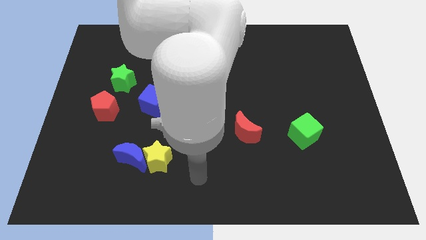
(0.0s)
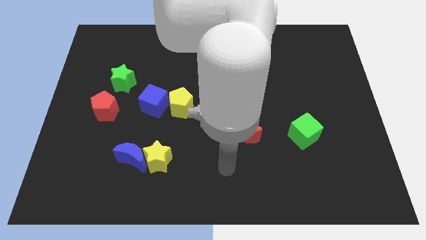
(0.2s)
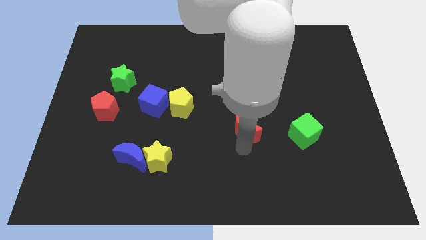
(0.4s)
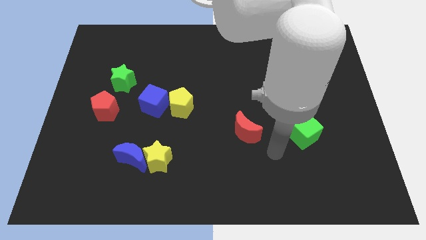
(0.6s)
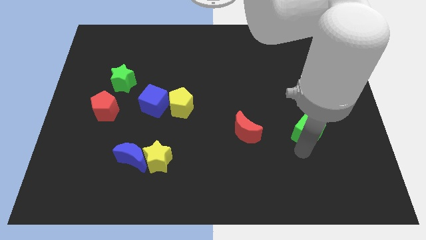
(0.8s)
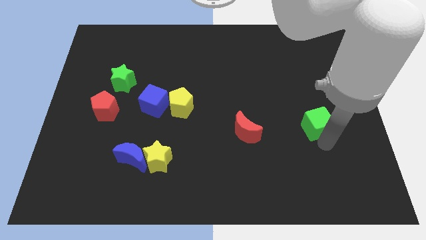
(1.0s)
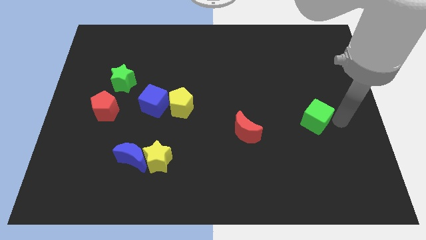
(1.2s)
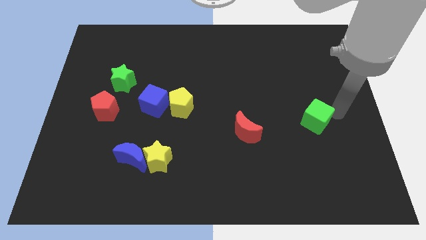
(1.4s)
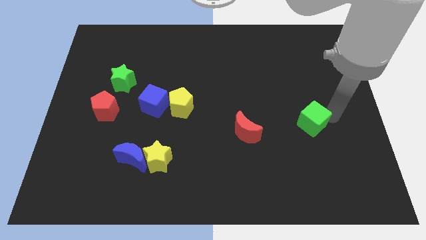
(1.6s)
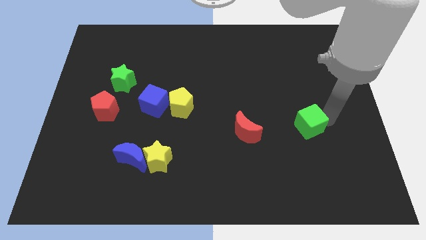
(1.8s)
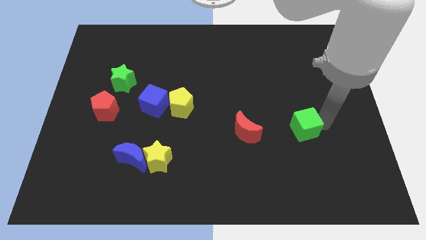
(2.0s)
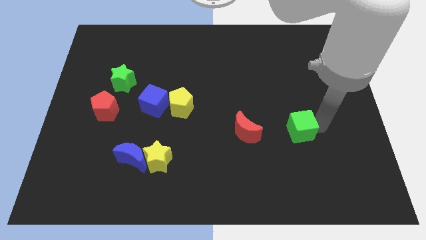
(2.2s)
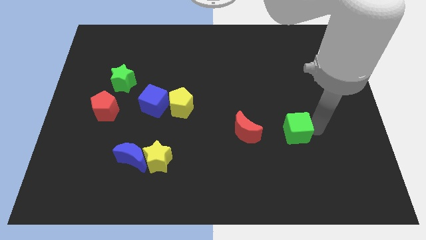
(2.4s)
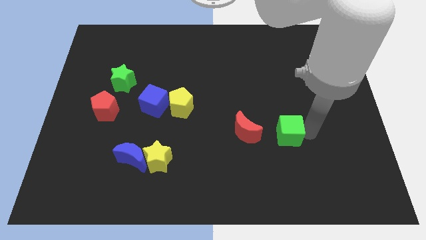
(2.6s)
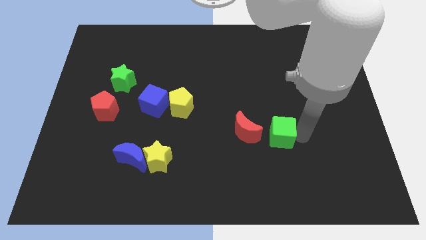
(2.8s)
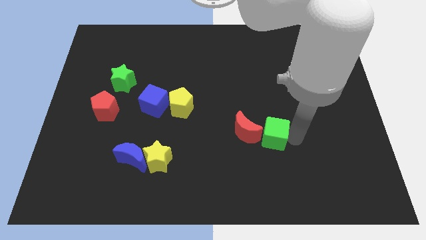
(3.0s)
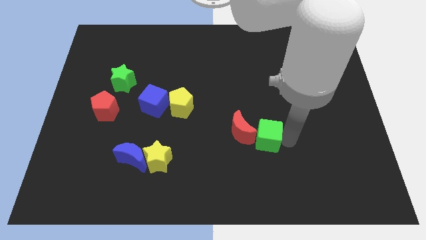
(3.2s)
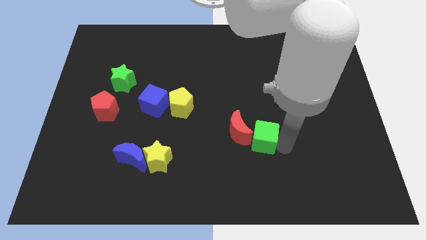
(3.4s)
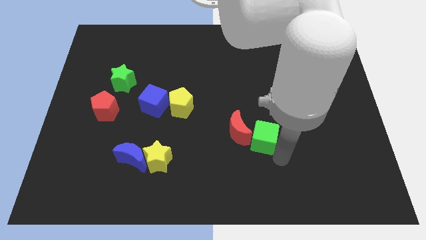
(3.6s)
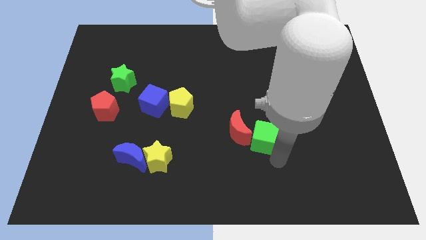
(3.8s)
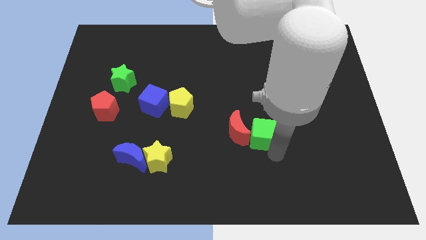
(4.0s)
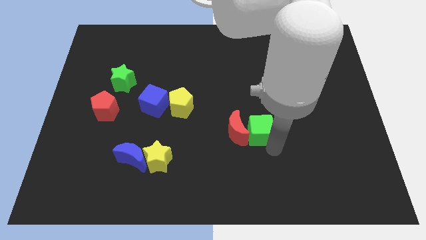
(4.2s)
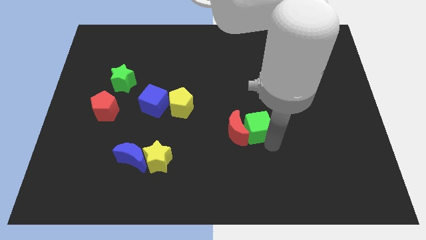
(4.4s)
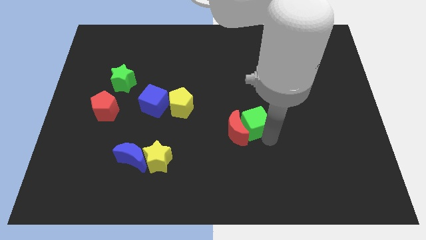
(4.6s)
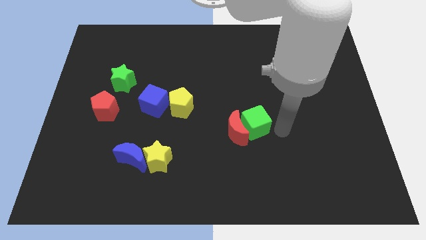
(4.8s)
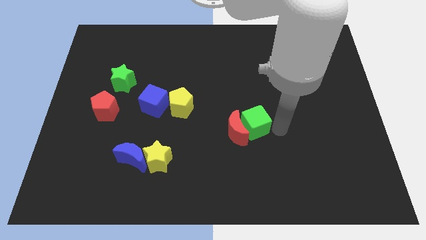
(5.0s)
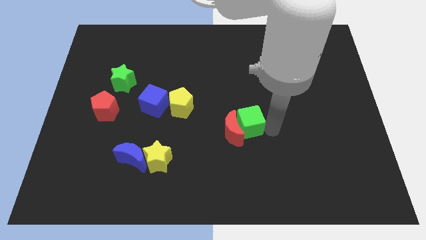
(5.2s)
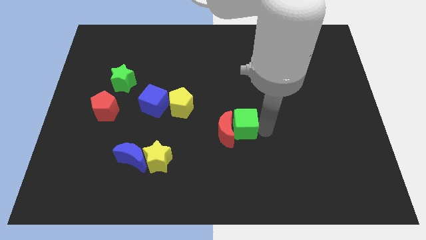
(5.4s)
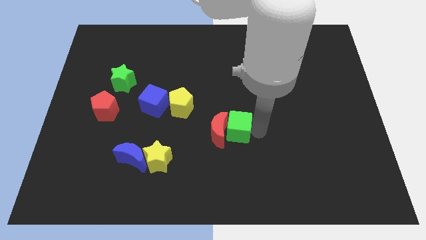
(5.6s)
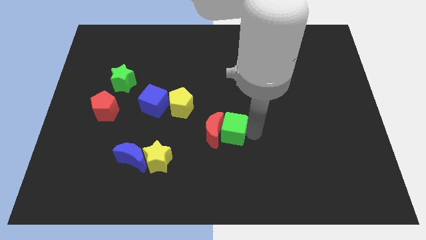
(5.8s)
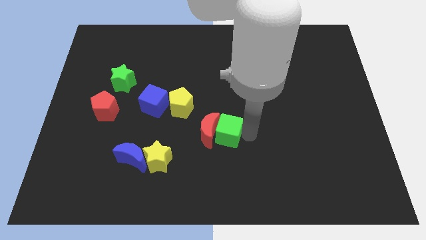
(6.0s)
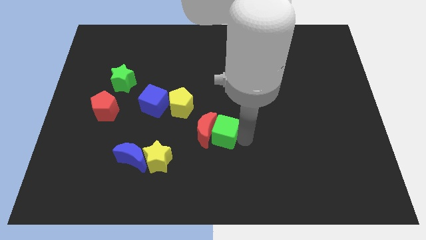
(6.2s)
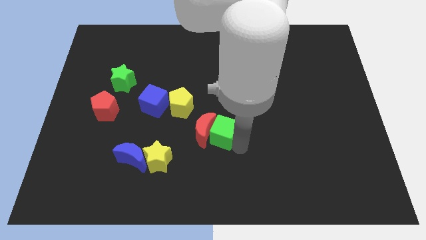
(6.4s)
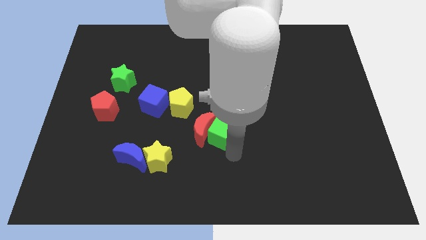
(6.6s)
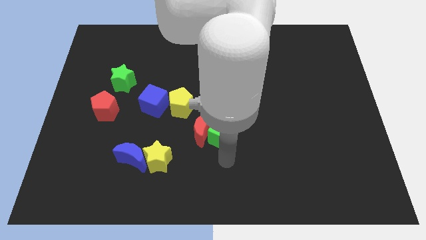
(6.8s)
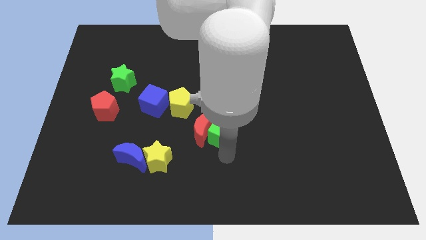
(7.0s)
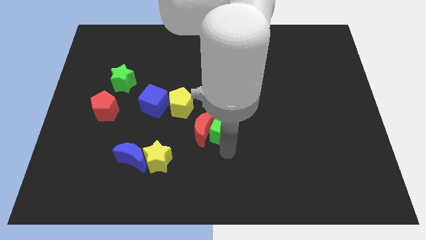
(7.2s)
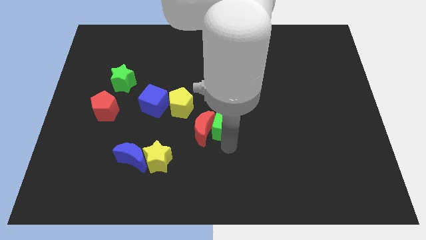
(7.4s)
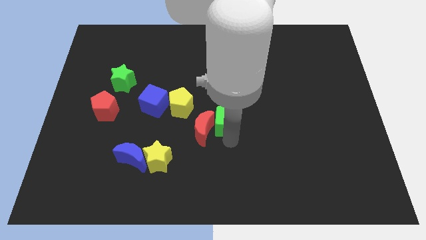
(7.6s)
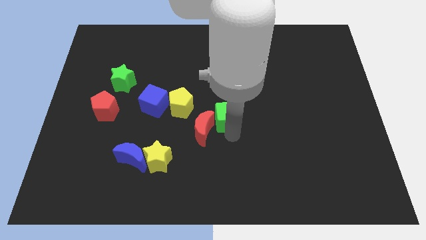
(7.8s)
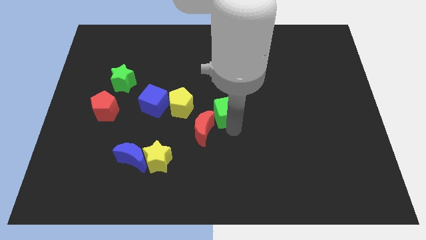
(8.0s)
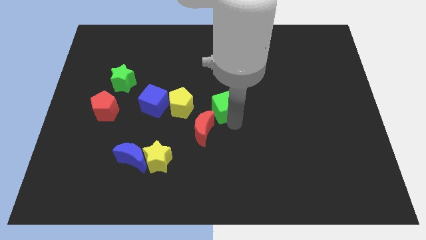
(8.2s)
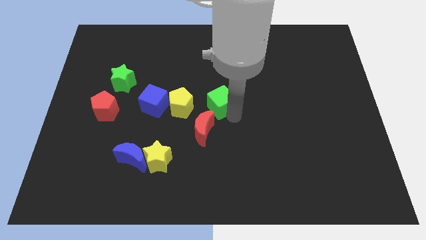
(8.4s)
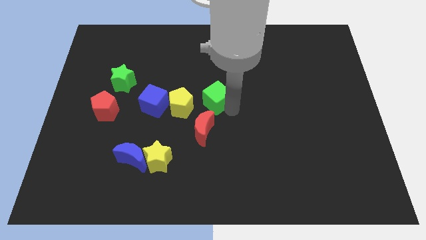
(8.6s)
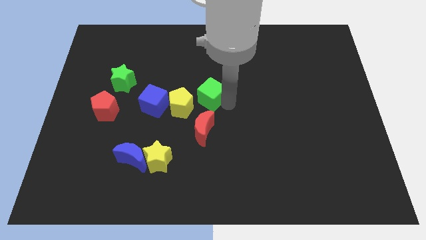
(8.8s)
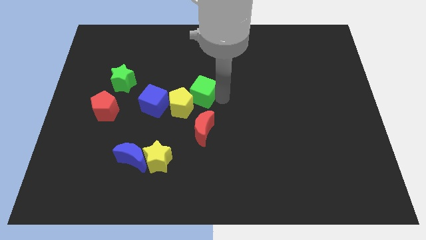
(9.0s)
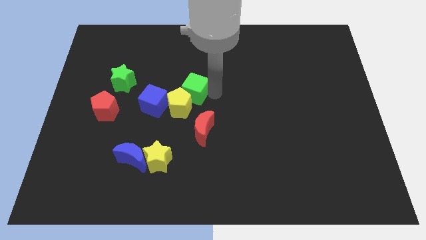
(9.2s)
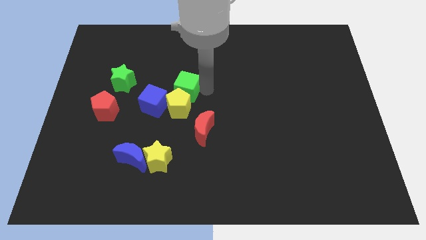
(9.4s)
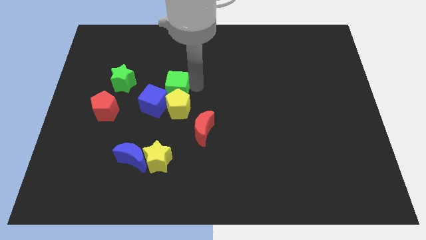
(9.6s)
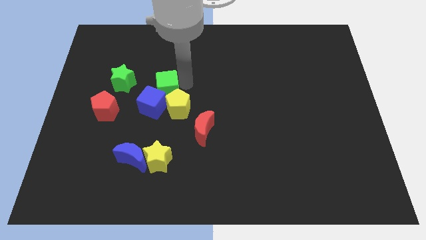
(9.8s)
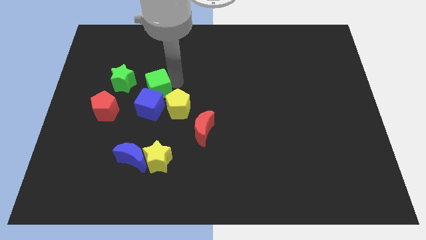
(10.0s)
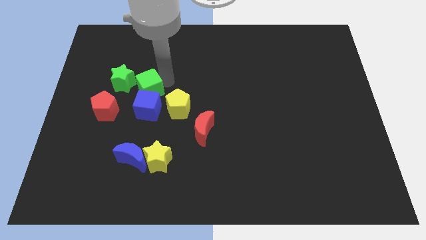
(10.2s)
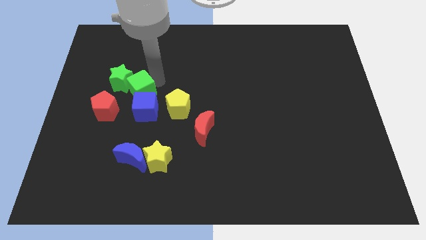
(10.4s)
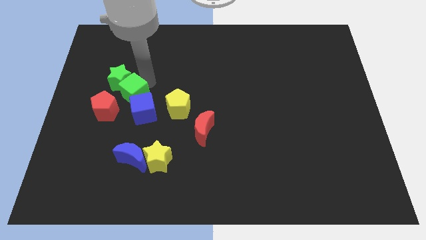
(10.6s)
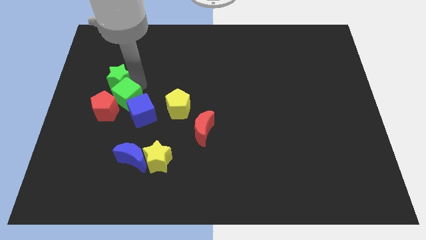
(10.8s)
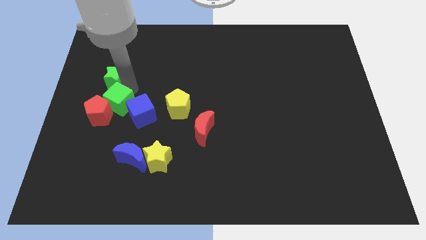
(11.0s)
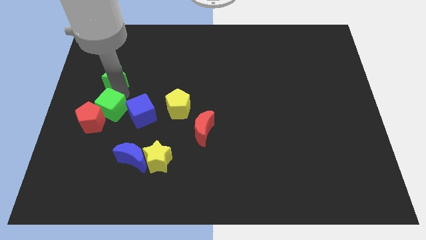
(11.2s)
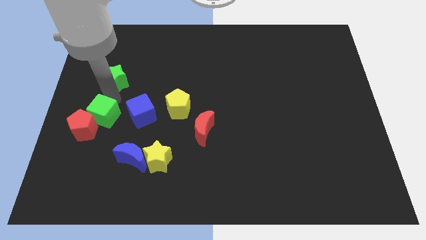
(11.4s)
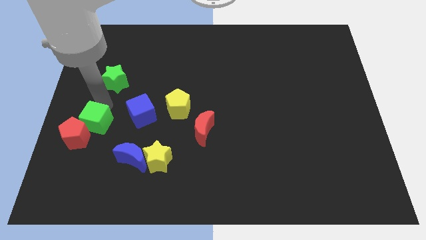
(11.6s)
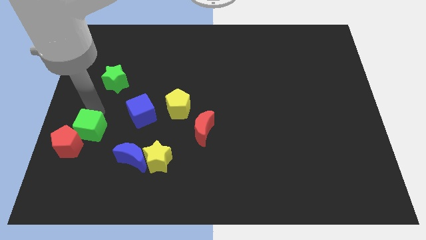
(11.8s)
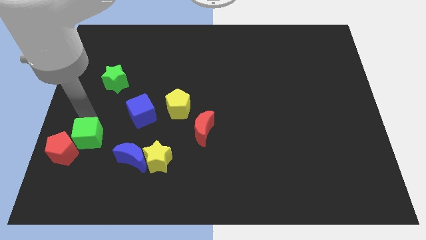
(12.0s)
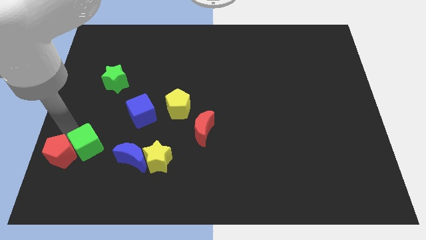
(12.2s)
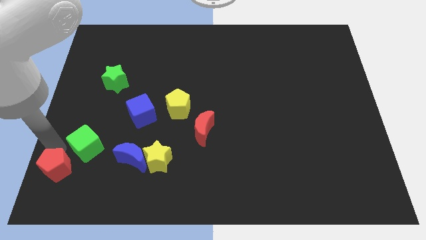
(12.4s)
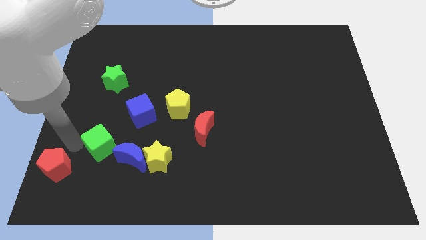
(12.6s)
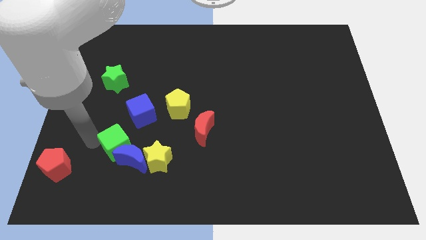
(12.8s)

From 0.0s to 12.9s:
move the green cube to the top left side of the yellow star
